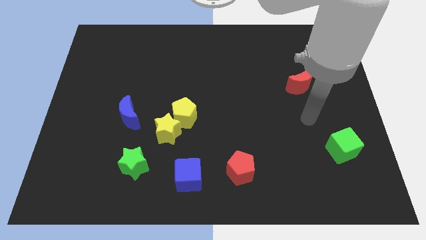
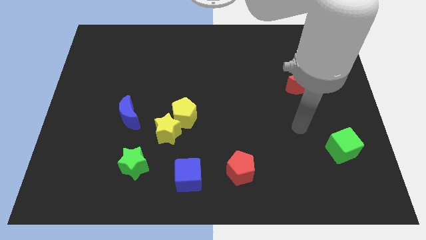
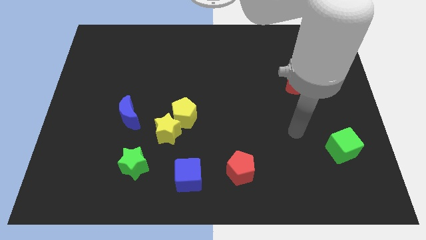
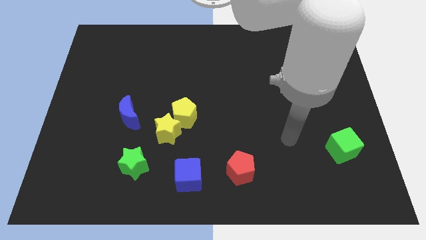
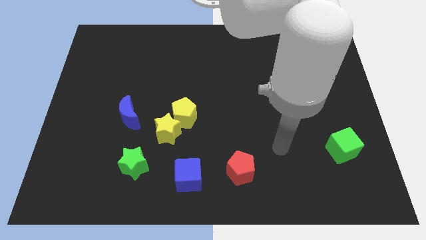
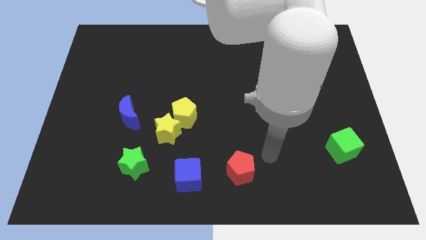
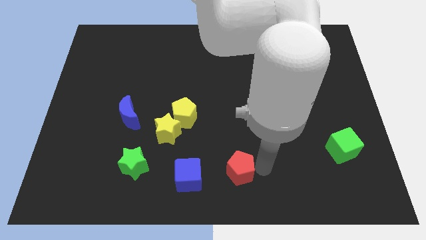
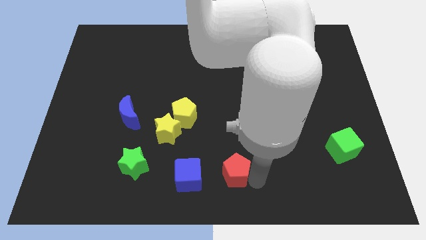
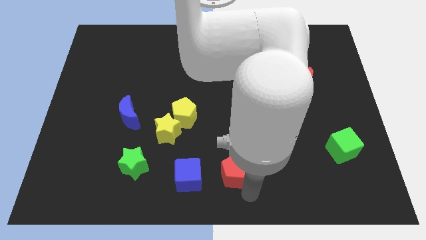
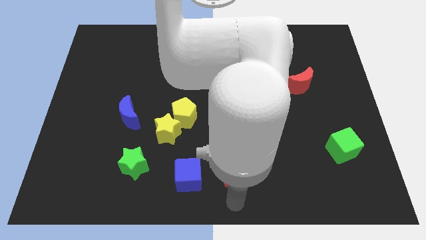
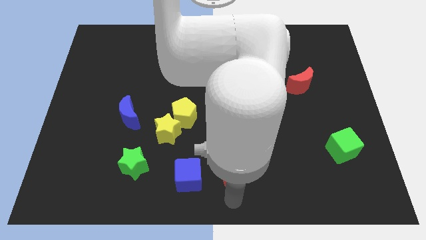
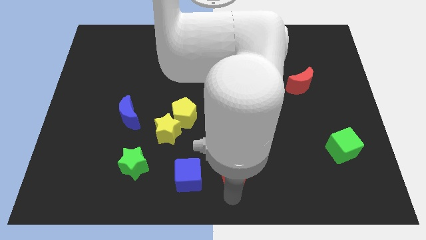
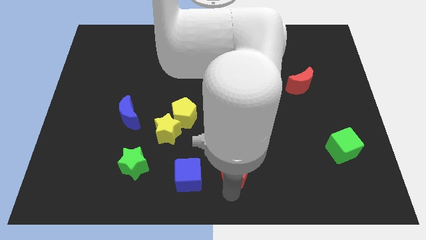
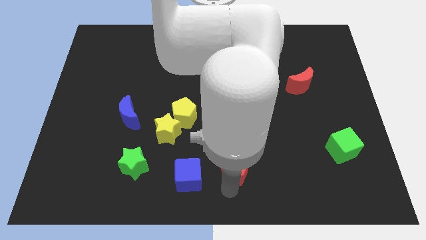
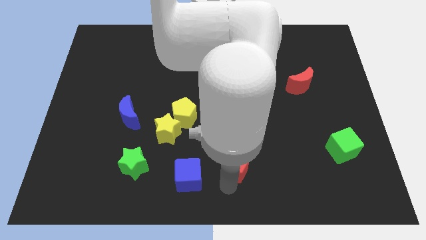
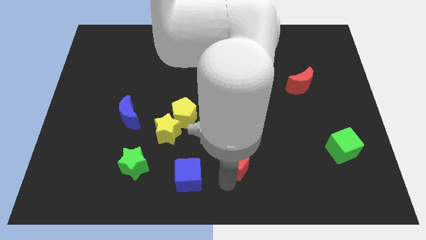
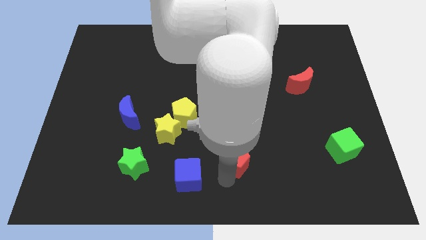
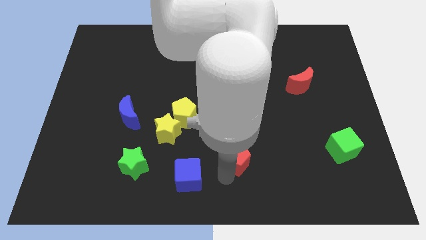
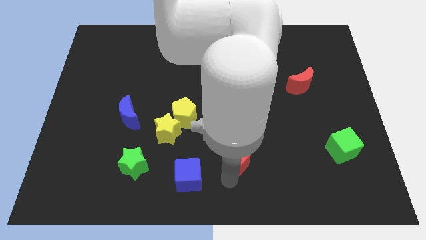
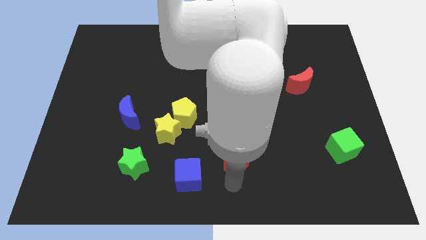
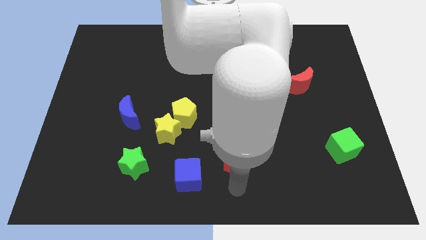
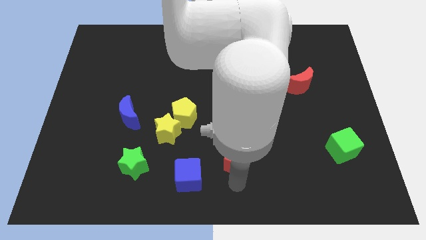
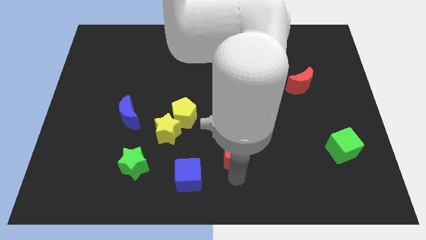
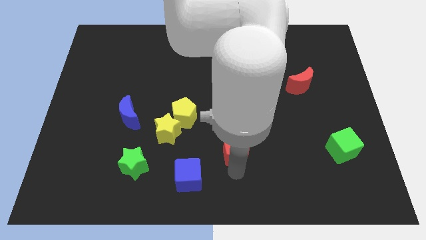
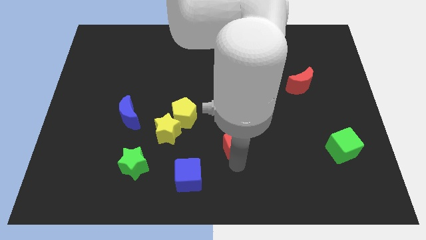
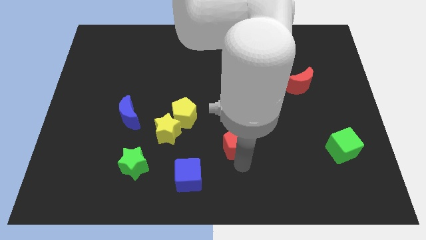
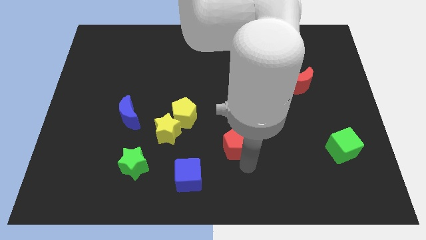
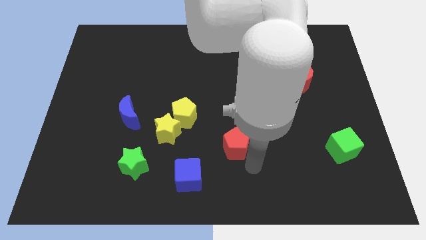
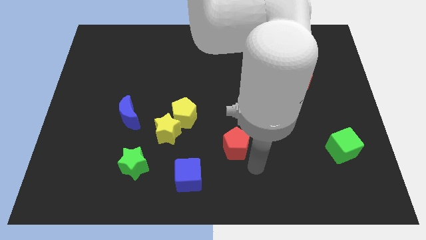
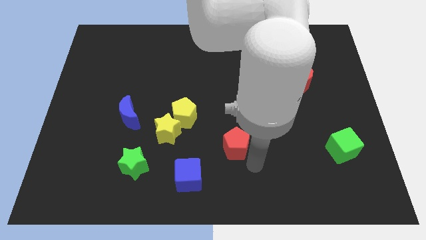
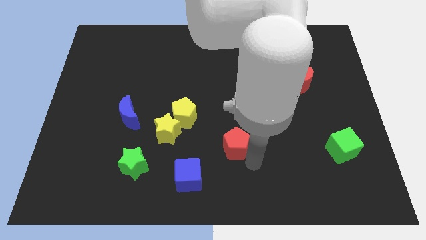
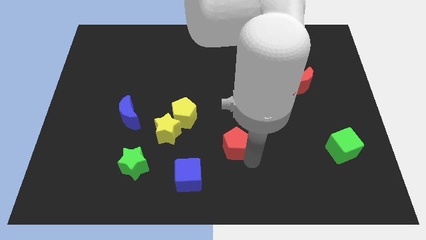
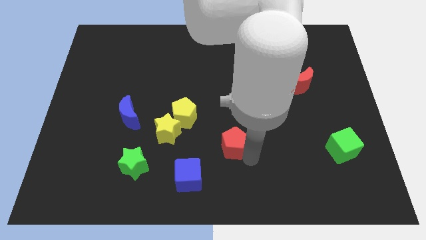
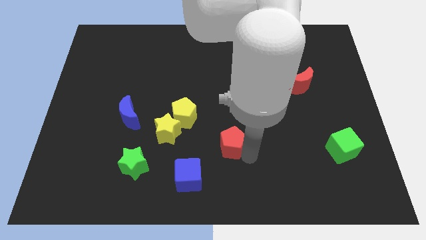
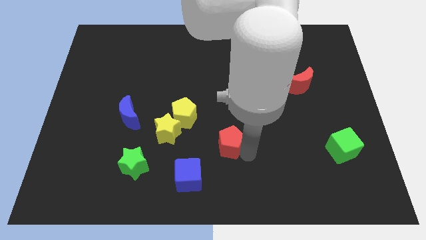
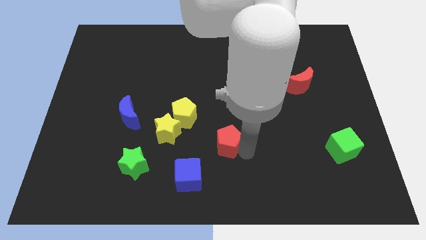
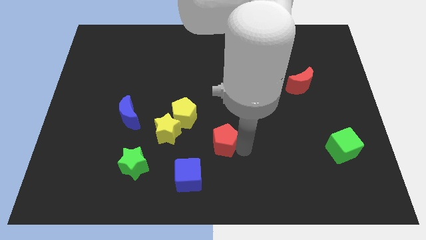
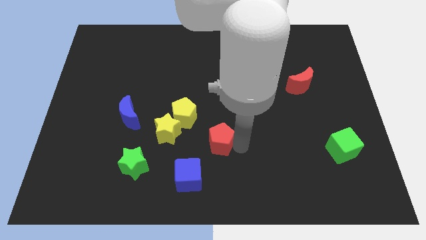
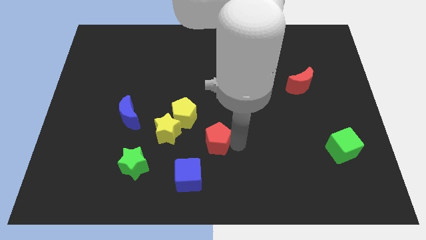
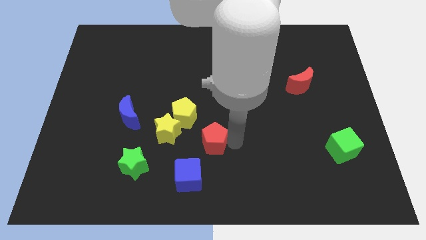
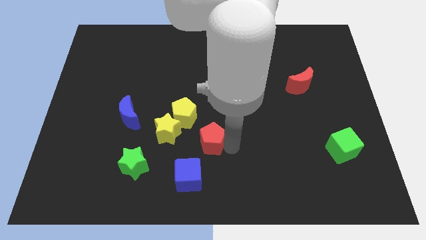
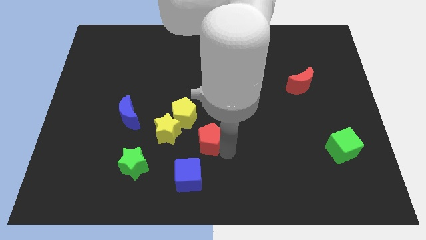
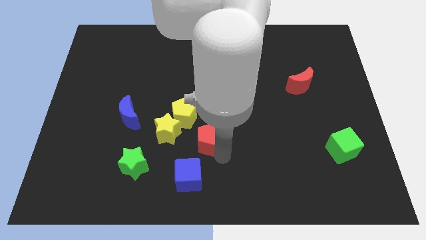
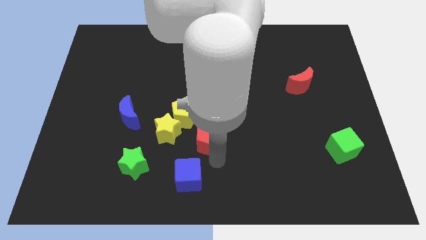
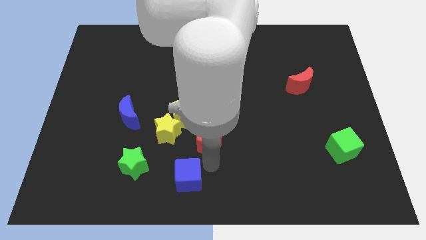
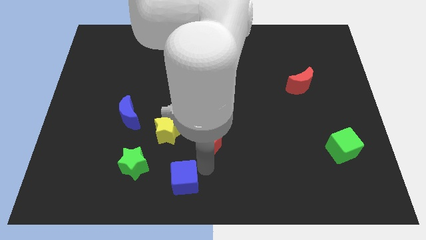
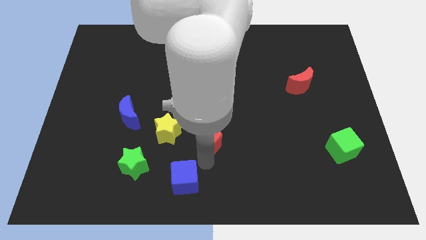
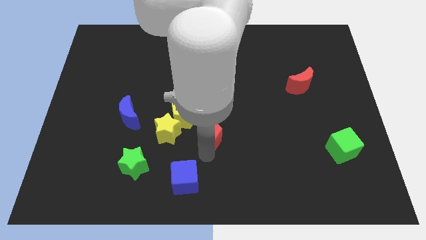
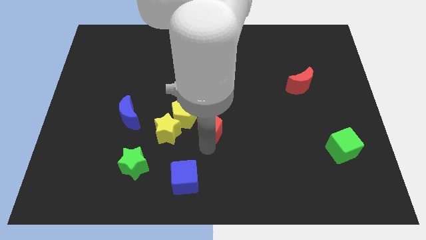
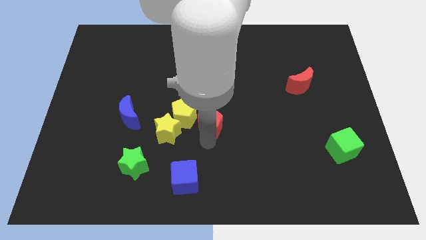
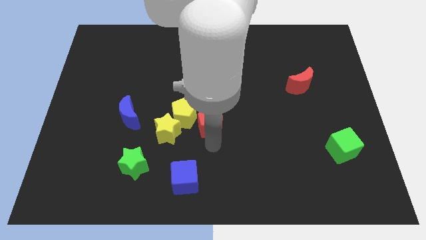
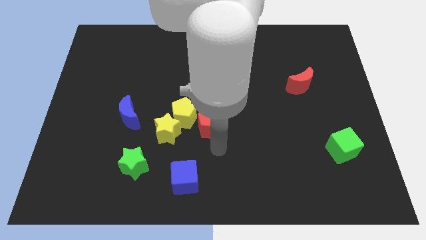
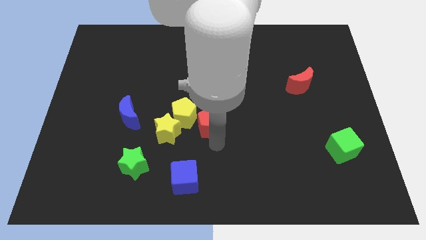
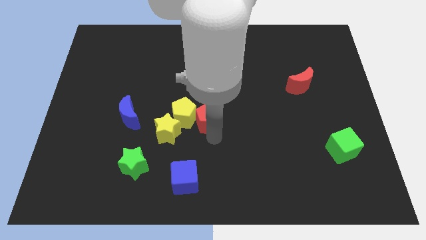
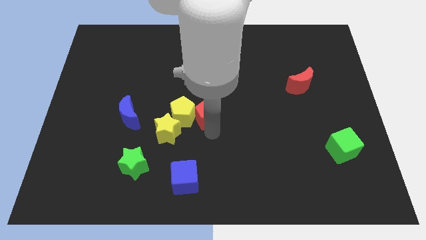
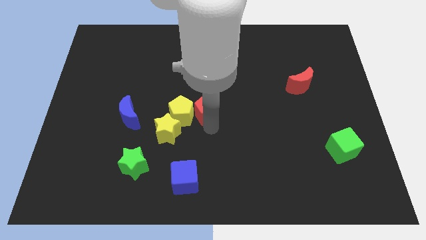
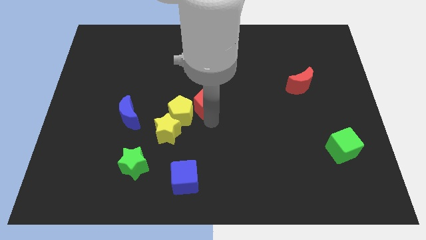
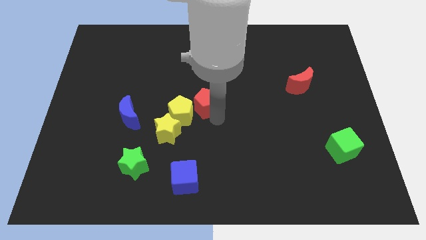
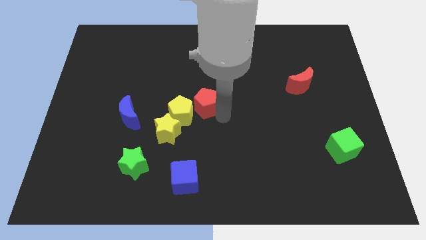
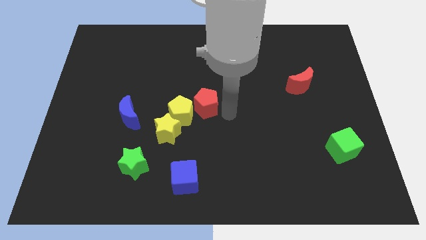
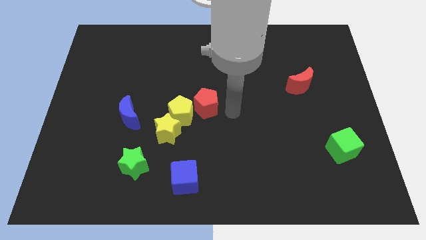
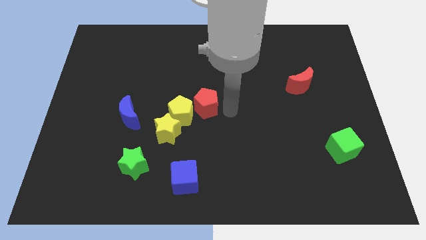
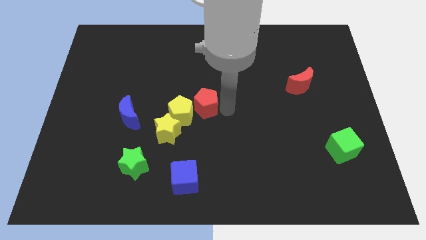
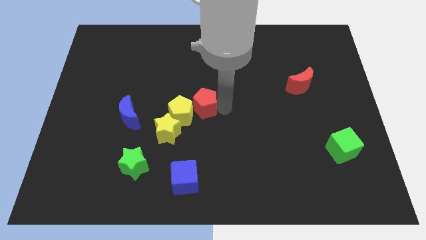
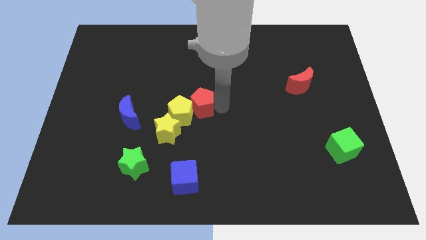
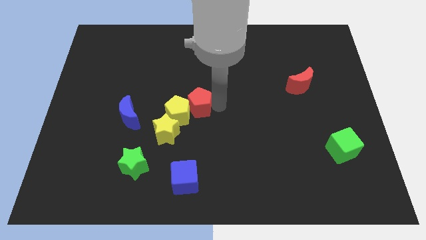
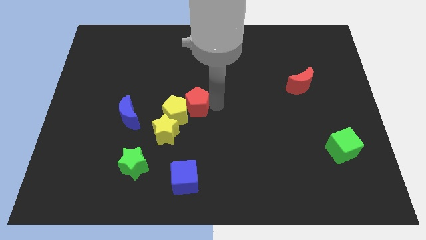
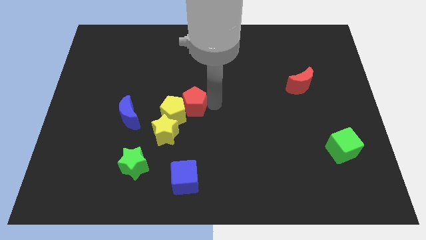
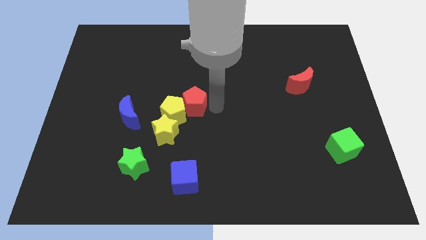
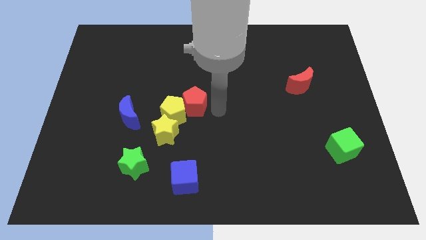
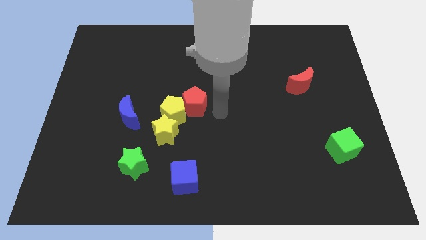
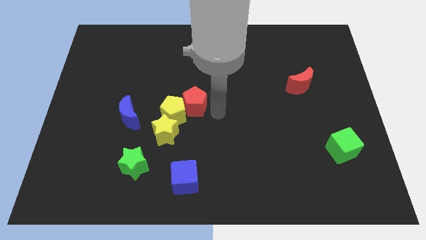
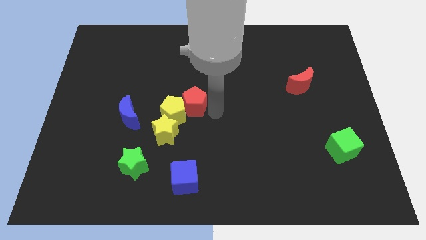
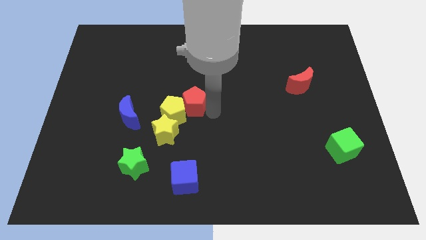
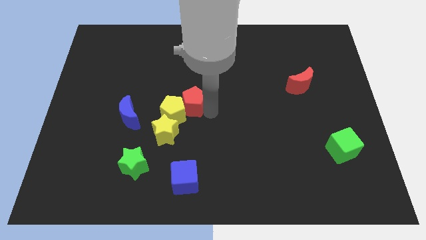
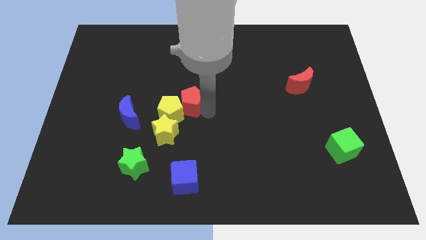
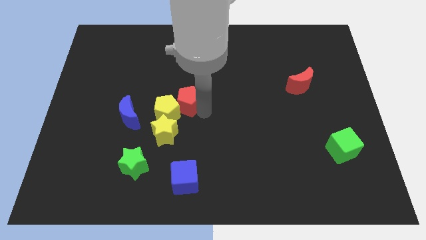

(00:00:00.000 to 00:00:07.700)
push the red pentagon upwards and left diagonally
